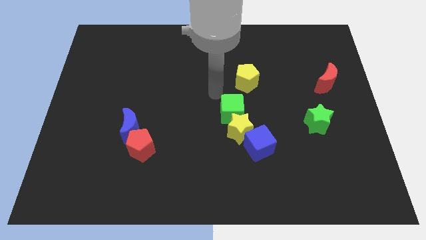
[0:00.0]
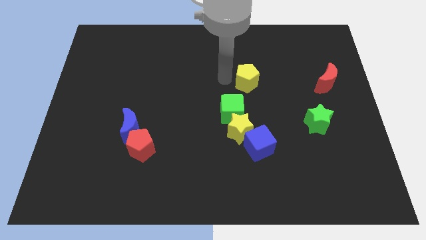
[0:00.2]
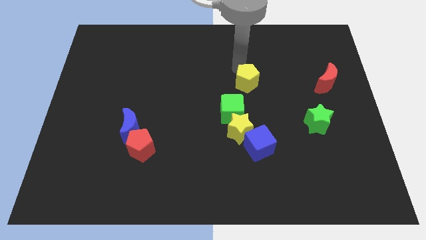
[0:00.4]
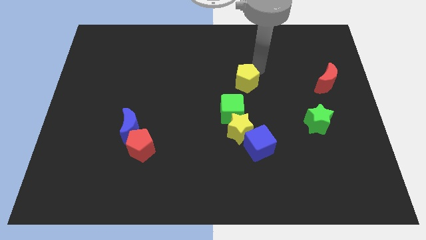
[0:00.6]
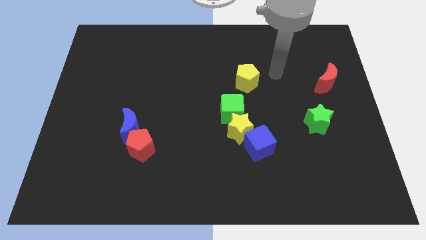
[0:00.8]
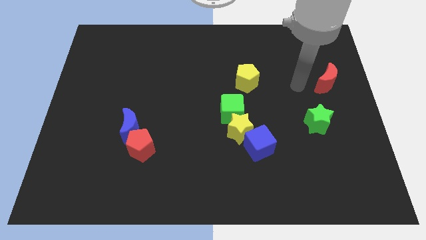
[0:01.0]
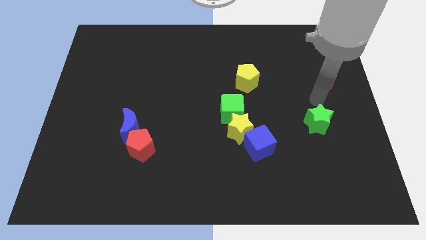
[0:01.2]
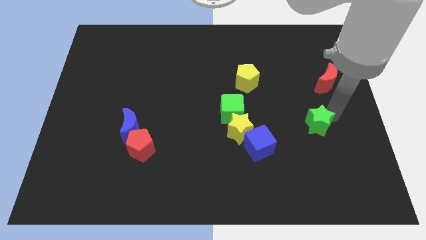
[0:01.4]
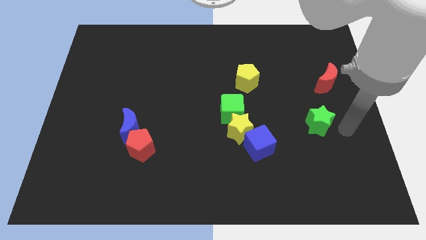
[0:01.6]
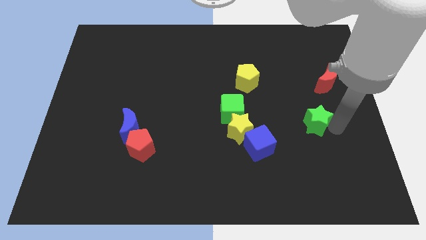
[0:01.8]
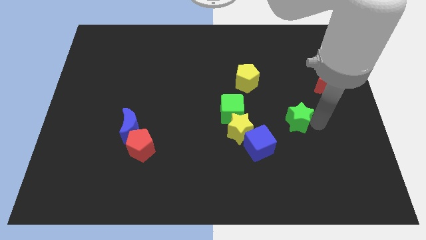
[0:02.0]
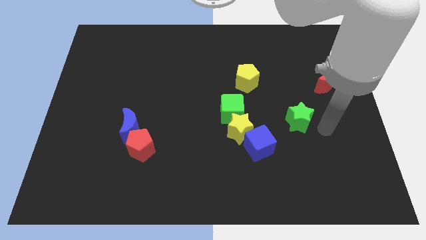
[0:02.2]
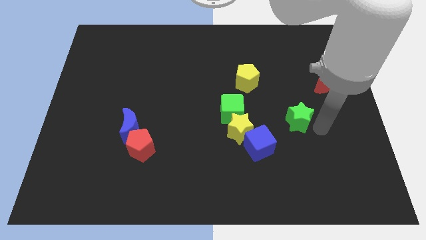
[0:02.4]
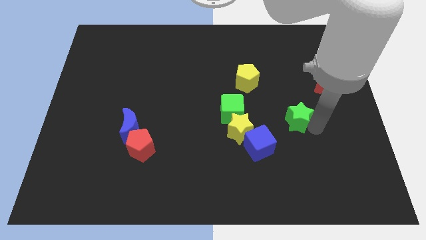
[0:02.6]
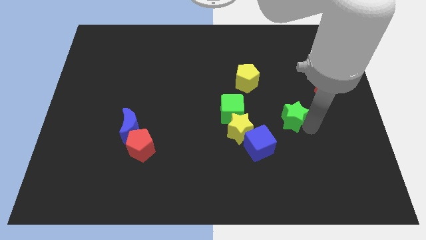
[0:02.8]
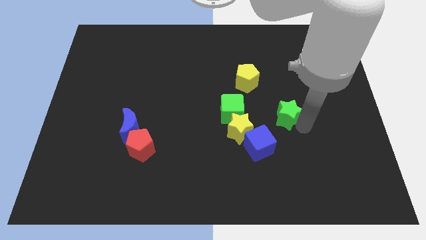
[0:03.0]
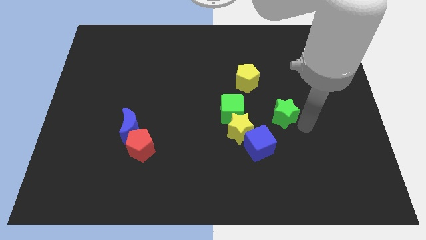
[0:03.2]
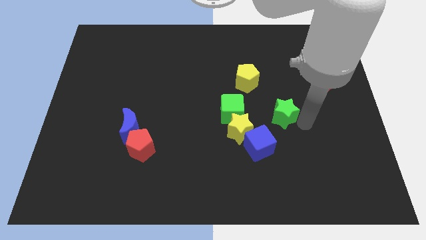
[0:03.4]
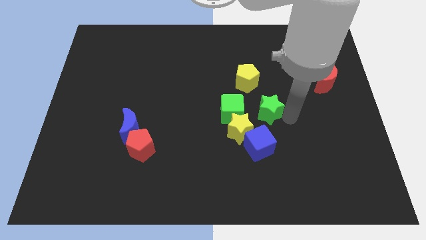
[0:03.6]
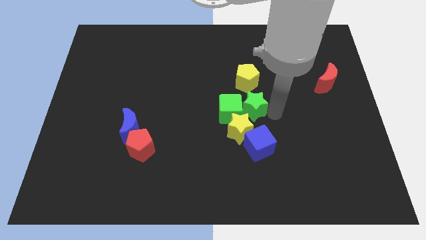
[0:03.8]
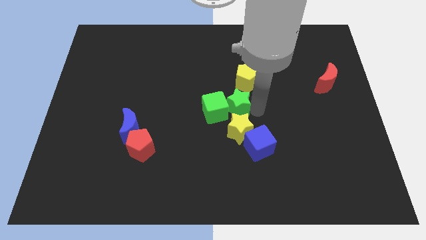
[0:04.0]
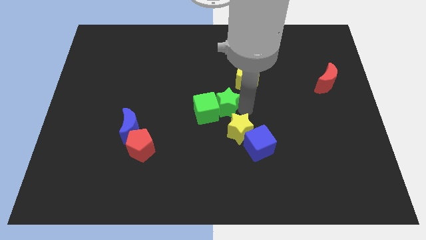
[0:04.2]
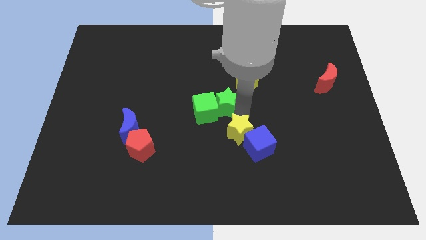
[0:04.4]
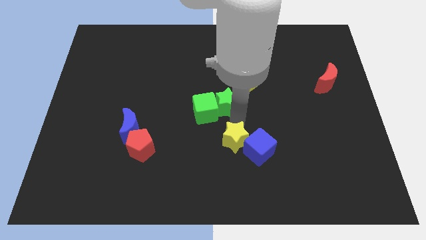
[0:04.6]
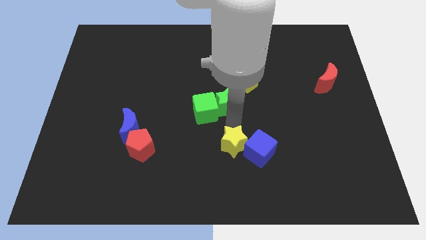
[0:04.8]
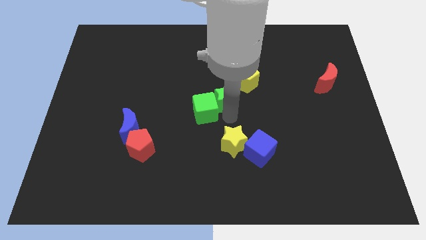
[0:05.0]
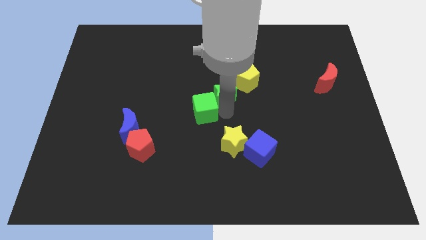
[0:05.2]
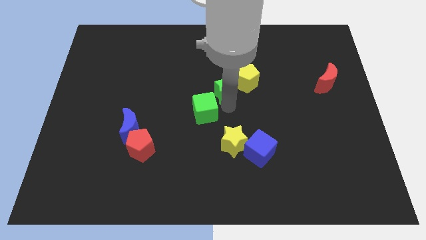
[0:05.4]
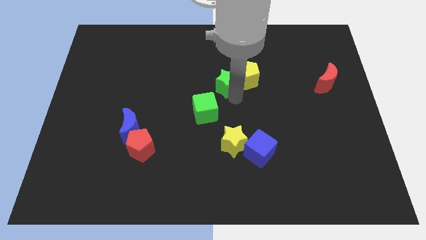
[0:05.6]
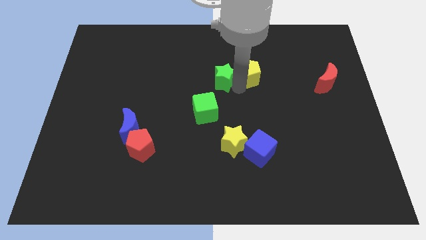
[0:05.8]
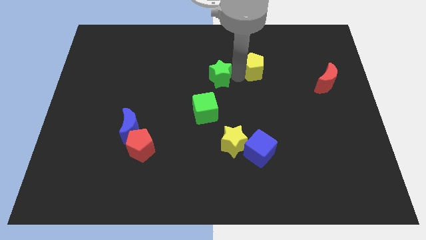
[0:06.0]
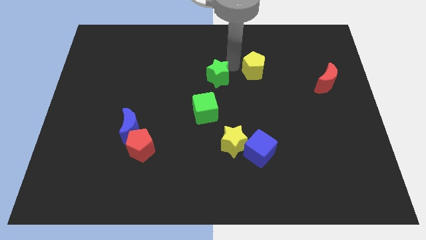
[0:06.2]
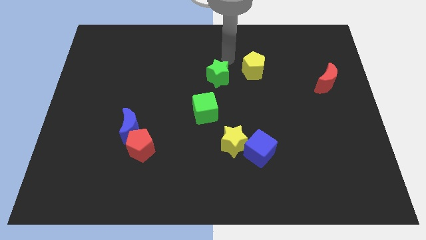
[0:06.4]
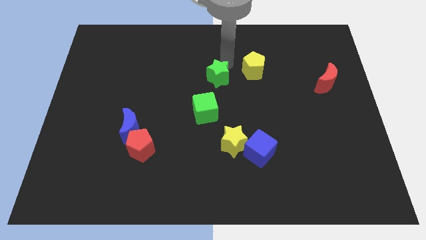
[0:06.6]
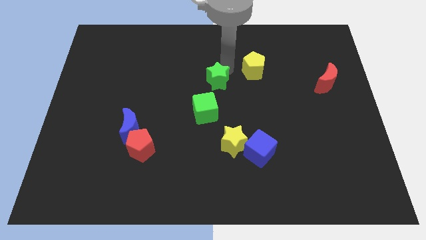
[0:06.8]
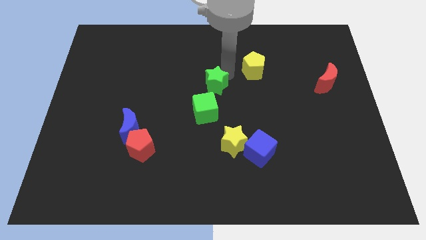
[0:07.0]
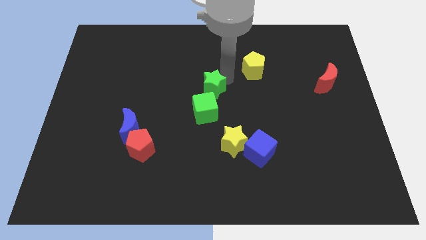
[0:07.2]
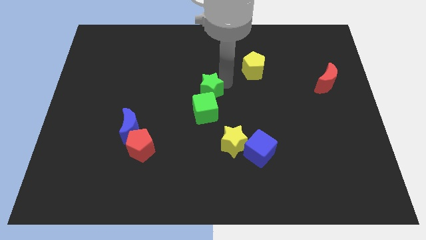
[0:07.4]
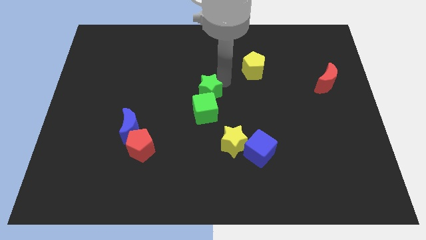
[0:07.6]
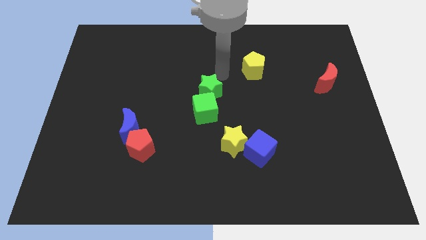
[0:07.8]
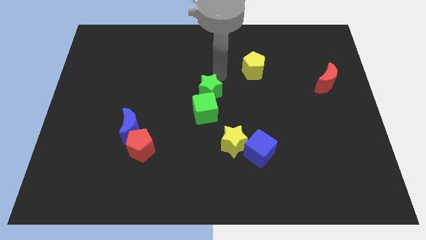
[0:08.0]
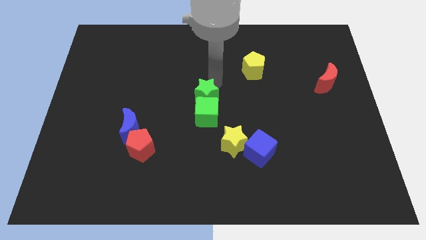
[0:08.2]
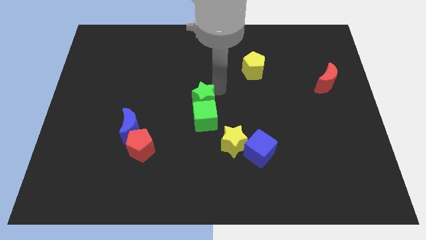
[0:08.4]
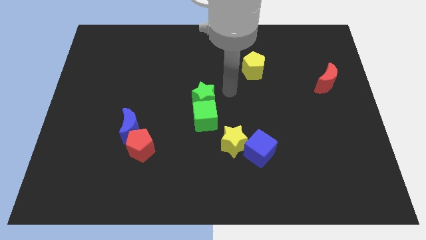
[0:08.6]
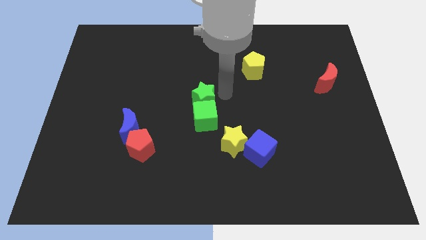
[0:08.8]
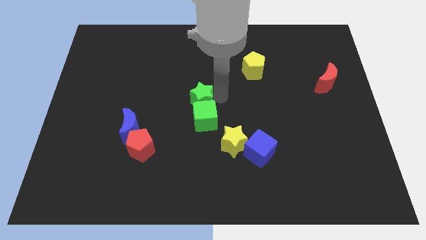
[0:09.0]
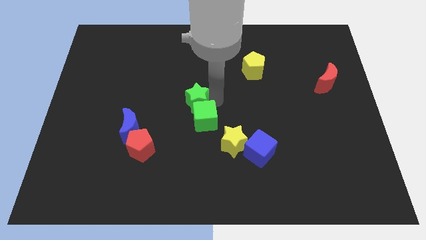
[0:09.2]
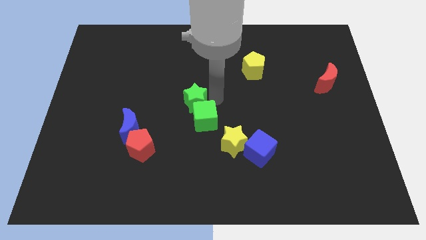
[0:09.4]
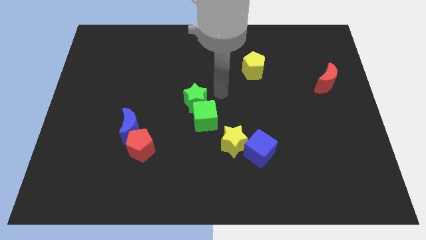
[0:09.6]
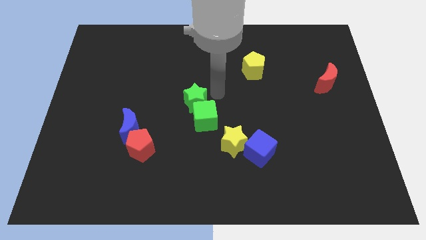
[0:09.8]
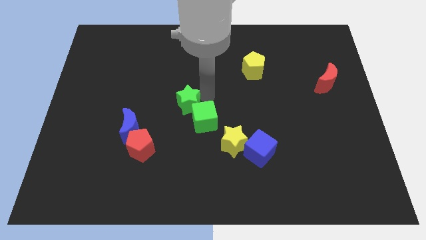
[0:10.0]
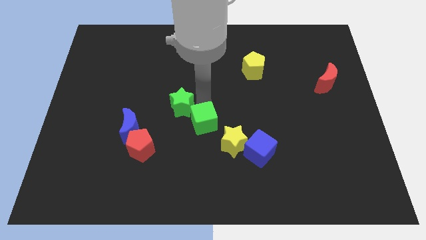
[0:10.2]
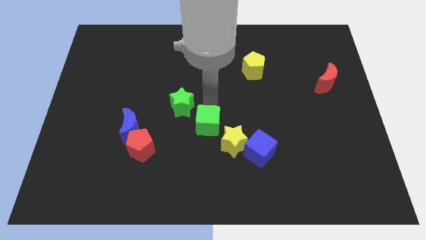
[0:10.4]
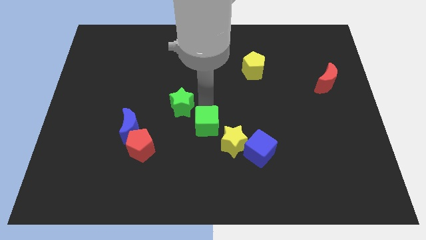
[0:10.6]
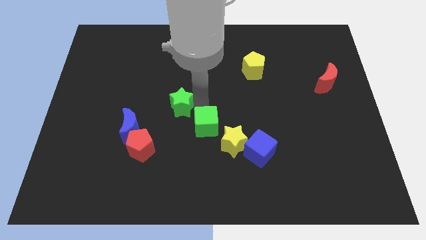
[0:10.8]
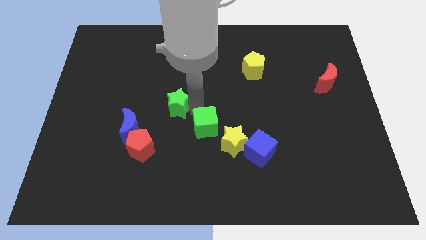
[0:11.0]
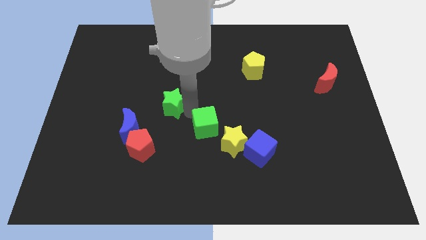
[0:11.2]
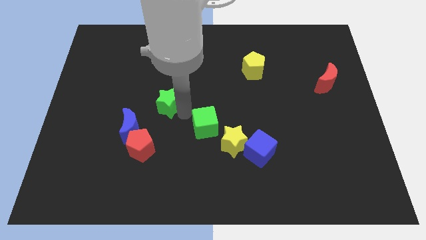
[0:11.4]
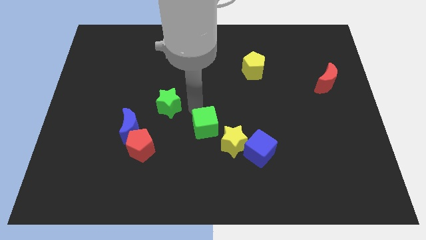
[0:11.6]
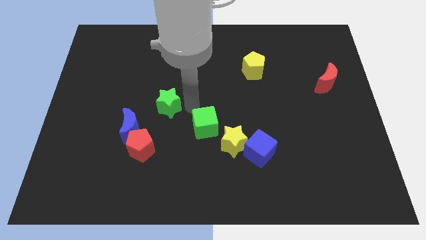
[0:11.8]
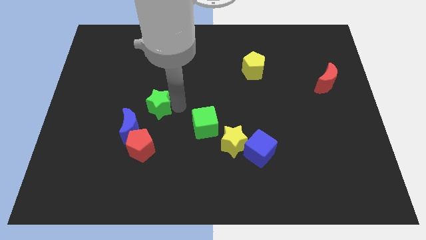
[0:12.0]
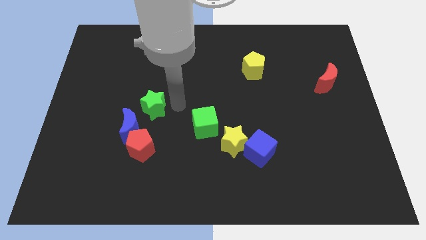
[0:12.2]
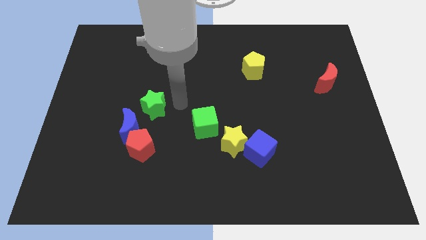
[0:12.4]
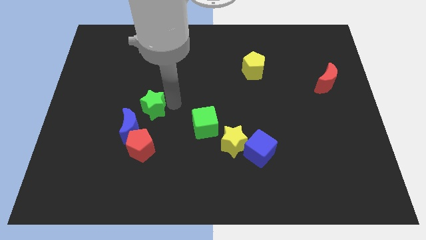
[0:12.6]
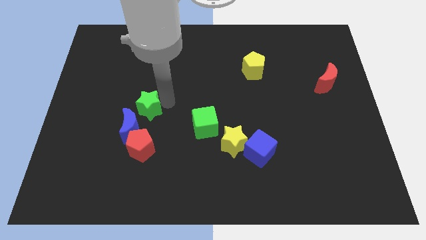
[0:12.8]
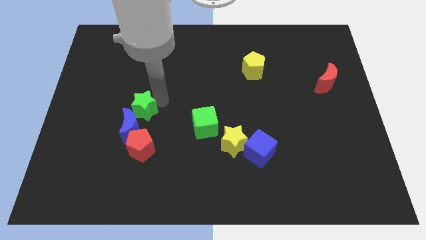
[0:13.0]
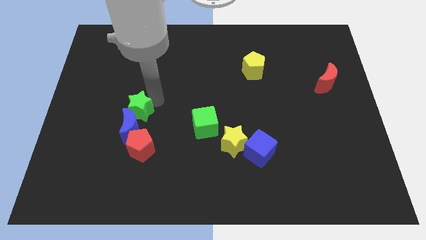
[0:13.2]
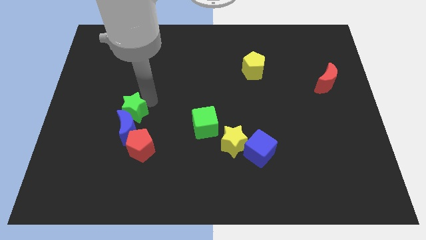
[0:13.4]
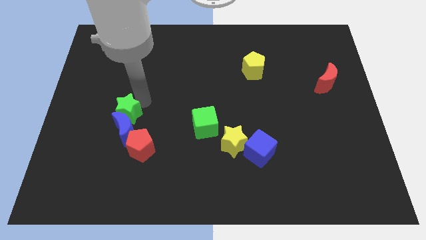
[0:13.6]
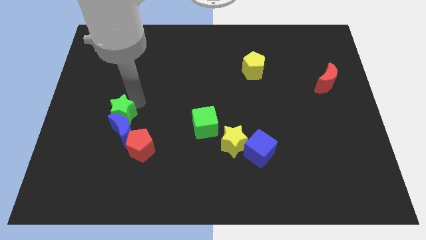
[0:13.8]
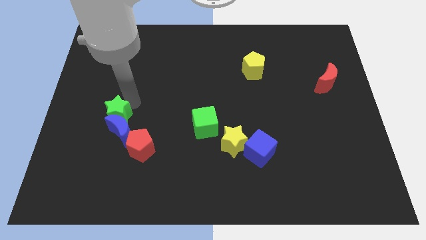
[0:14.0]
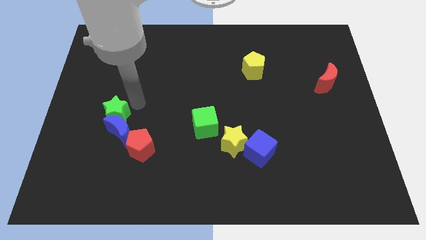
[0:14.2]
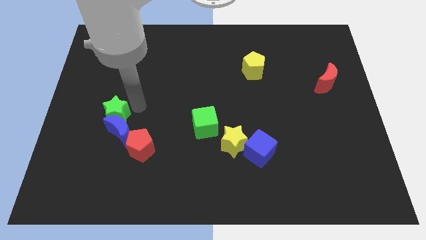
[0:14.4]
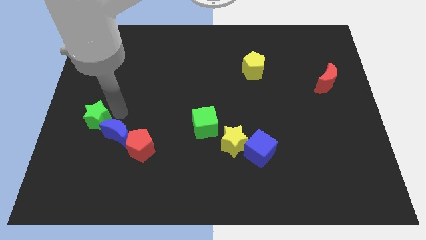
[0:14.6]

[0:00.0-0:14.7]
slide the green star to the left side of the blue moon

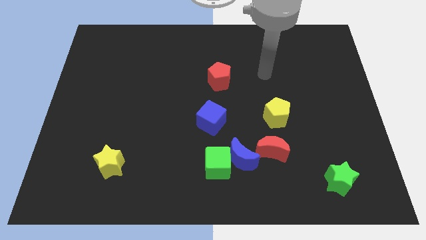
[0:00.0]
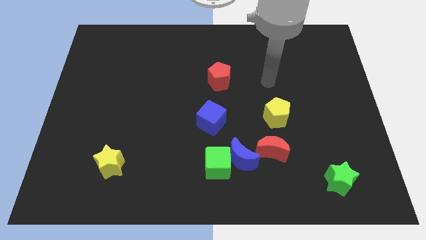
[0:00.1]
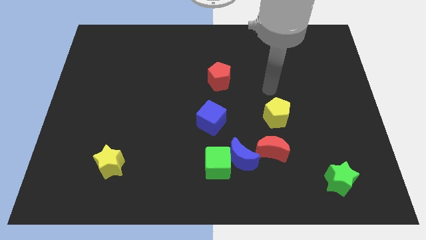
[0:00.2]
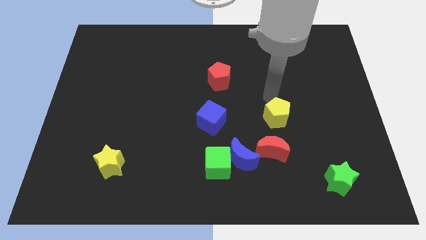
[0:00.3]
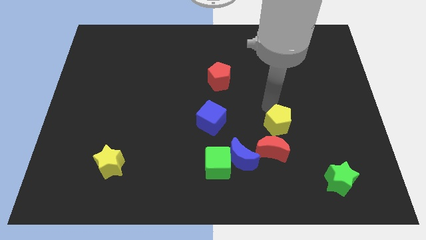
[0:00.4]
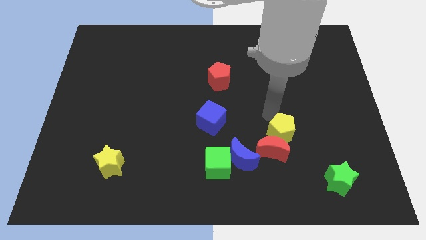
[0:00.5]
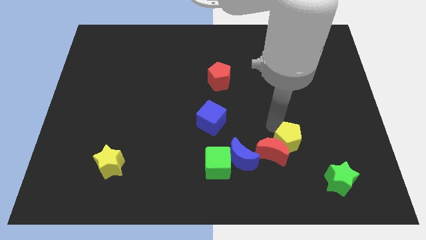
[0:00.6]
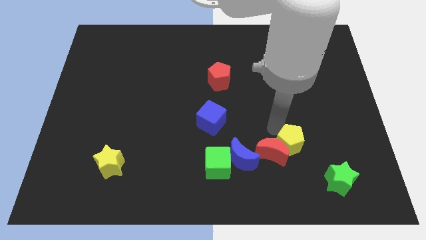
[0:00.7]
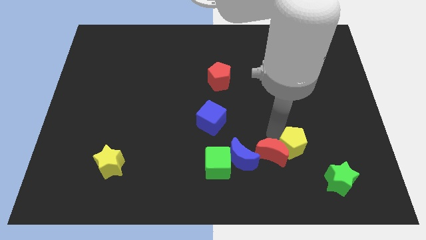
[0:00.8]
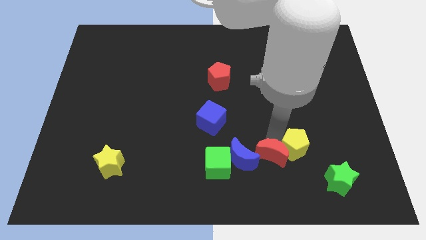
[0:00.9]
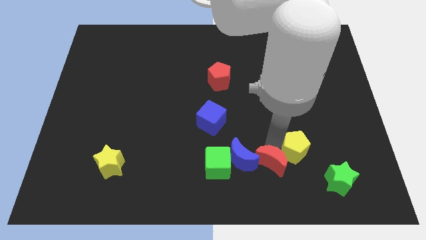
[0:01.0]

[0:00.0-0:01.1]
slide the red moon to the bottom right of the blue moon
